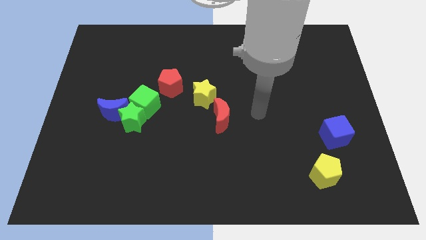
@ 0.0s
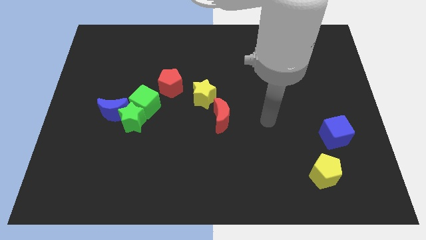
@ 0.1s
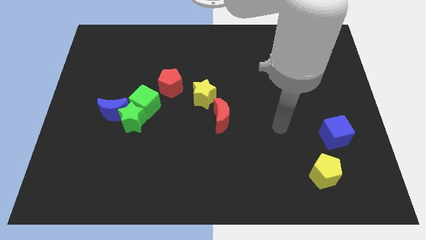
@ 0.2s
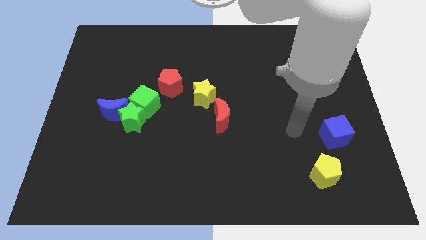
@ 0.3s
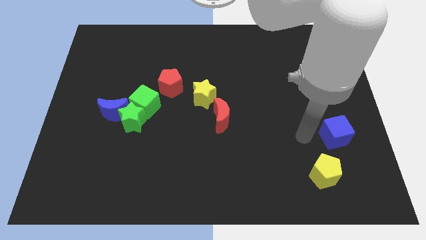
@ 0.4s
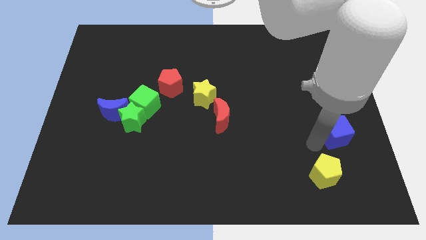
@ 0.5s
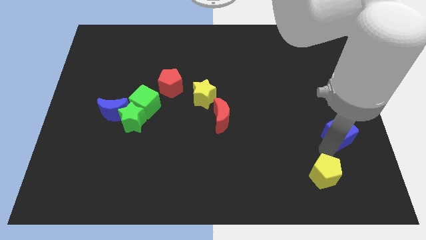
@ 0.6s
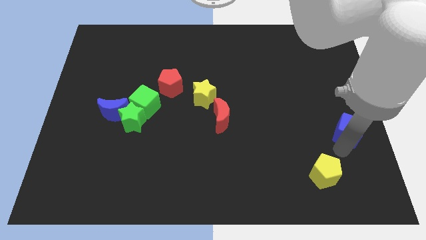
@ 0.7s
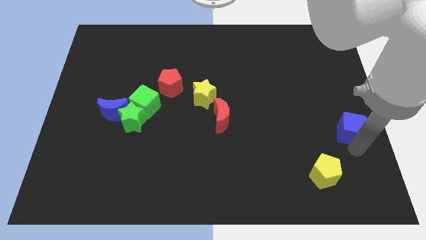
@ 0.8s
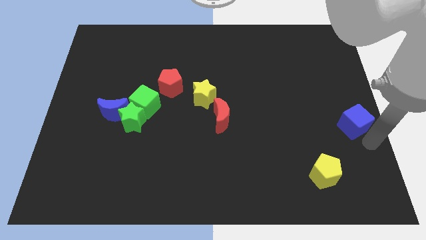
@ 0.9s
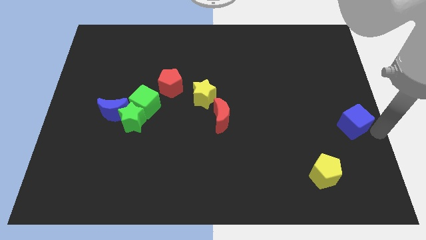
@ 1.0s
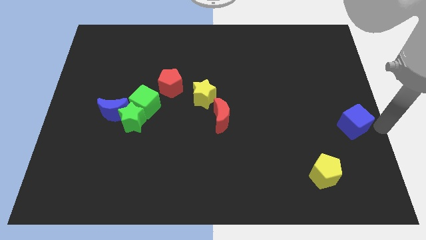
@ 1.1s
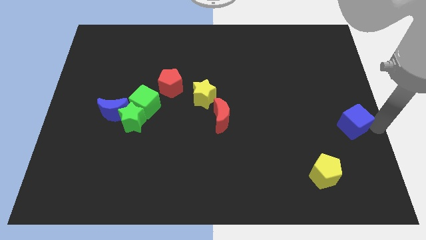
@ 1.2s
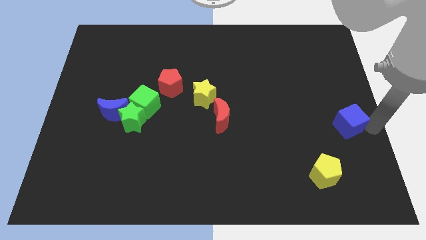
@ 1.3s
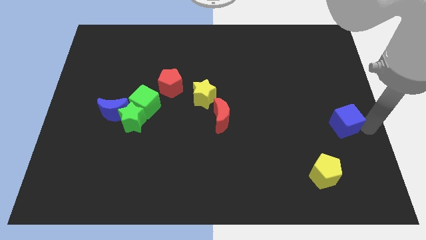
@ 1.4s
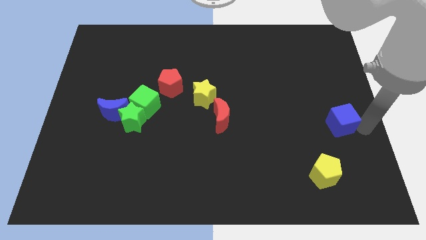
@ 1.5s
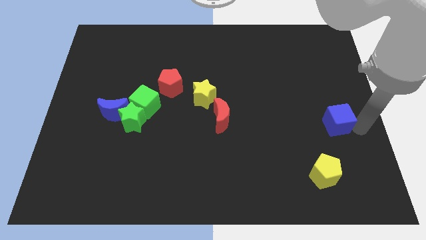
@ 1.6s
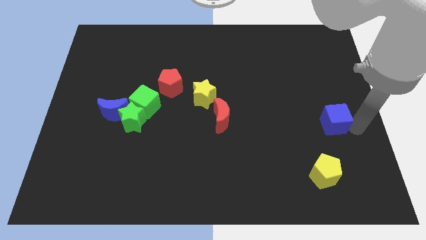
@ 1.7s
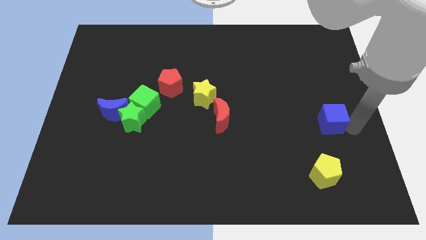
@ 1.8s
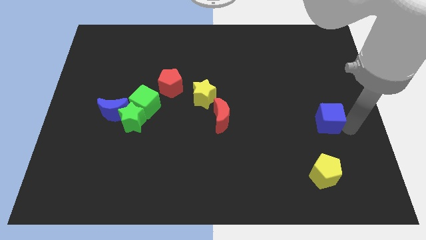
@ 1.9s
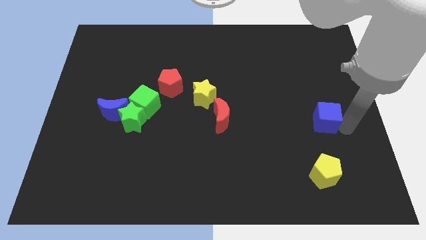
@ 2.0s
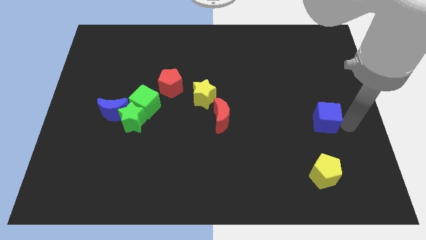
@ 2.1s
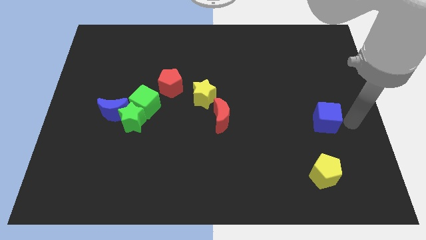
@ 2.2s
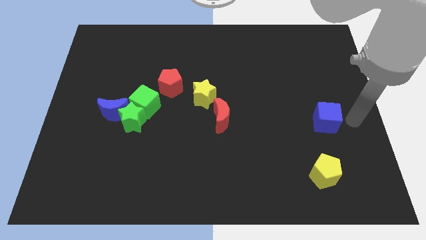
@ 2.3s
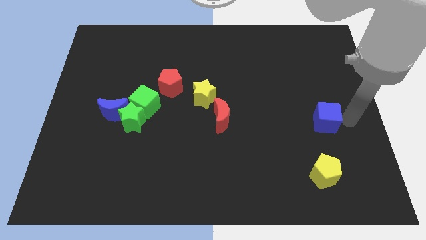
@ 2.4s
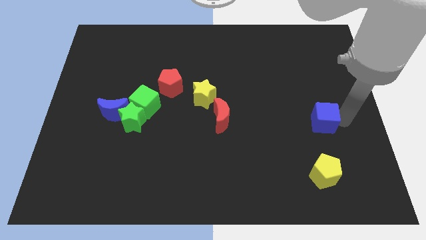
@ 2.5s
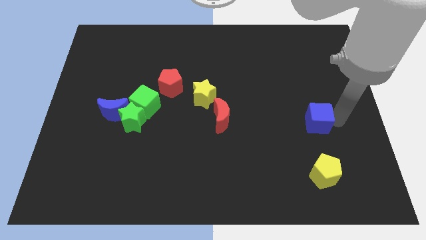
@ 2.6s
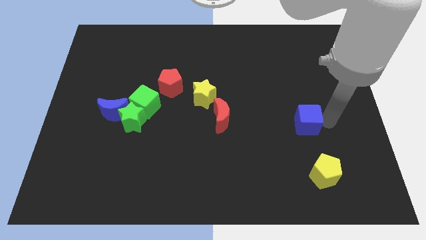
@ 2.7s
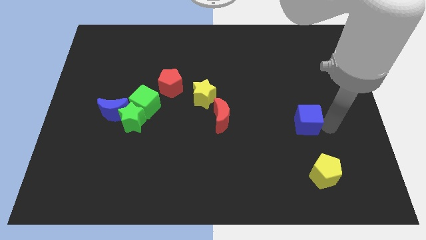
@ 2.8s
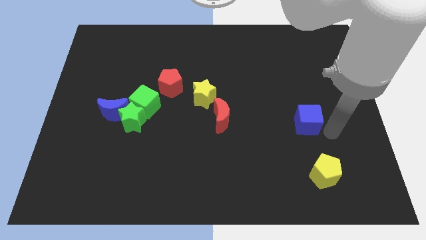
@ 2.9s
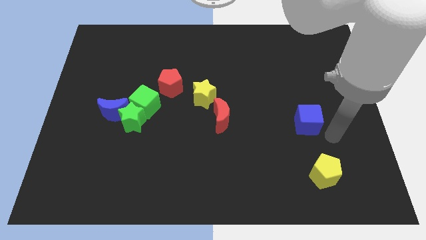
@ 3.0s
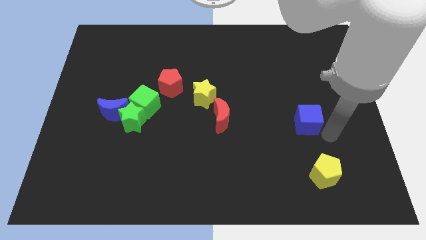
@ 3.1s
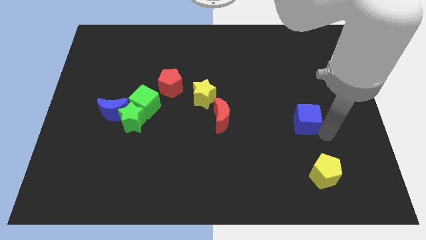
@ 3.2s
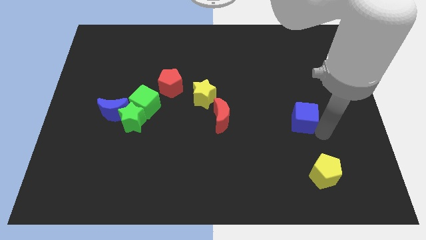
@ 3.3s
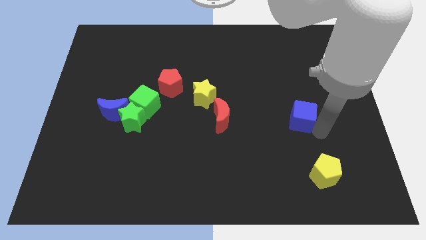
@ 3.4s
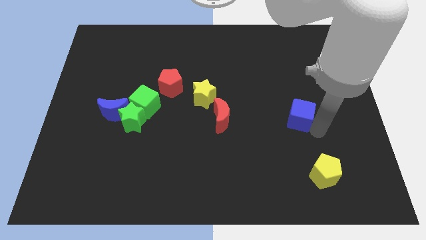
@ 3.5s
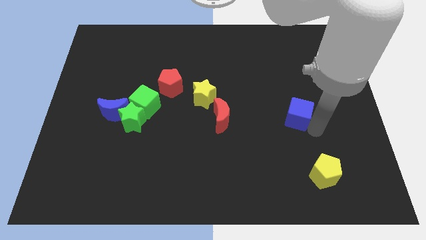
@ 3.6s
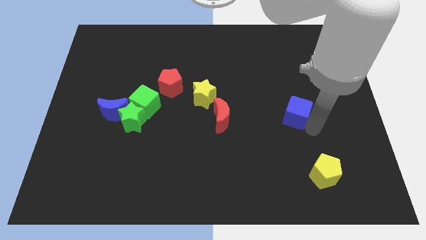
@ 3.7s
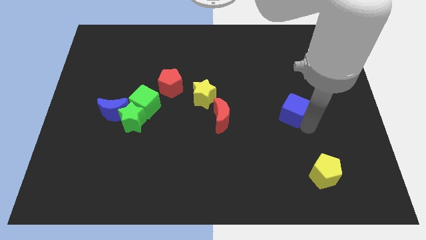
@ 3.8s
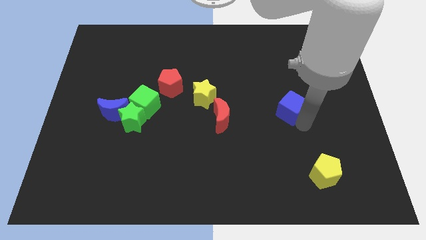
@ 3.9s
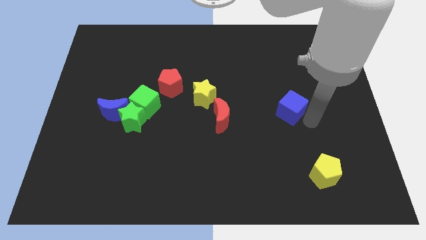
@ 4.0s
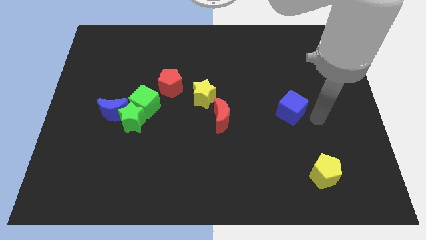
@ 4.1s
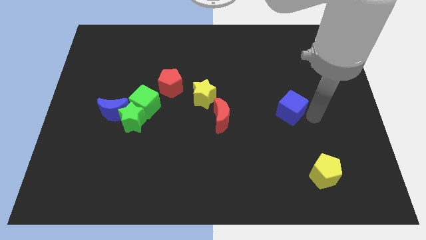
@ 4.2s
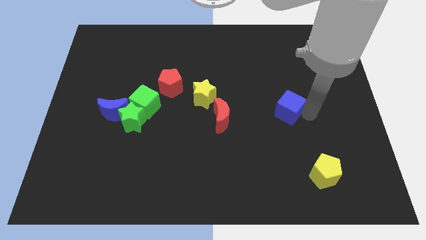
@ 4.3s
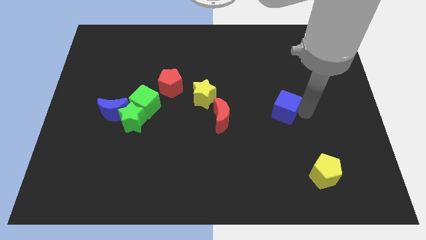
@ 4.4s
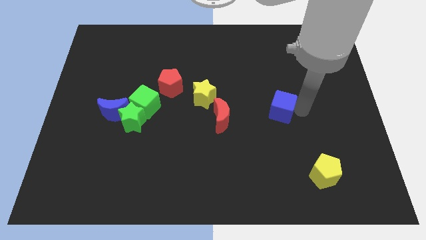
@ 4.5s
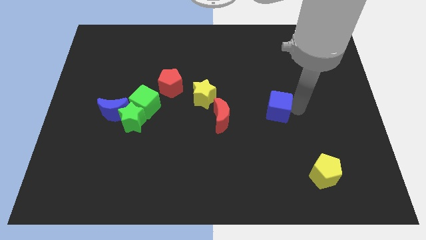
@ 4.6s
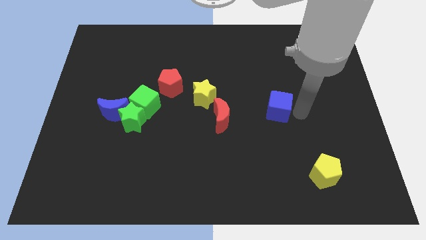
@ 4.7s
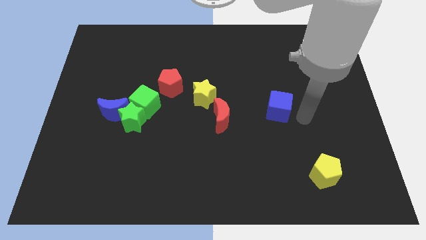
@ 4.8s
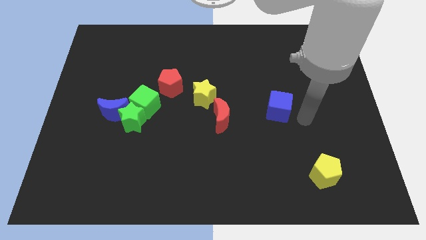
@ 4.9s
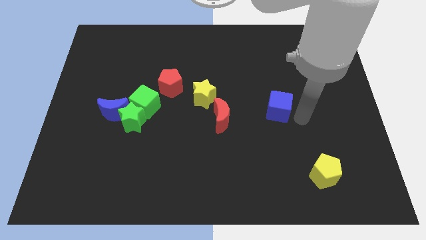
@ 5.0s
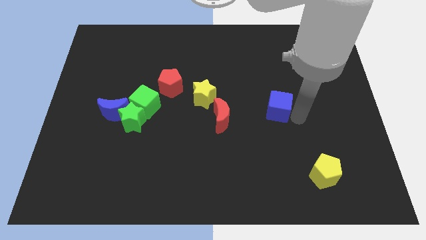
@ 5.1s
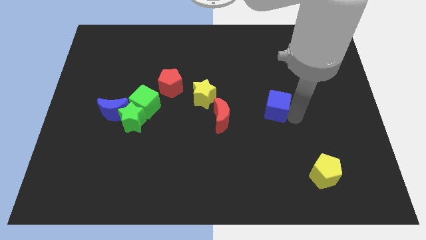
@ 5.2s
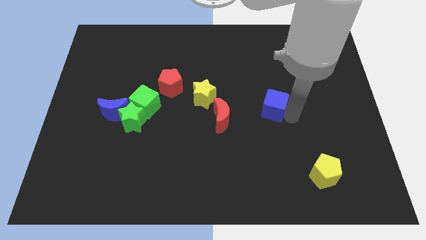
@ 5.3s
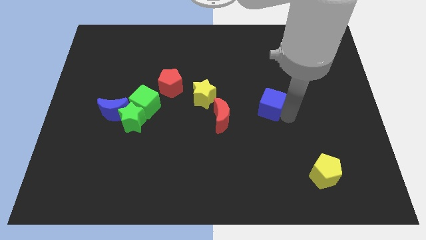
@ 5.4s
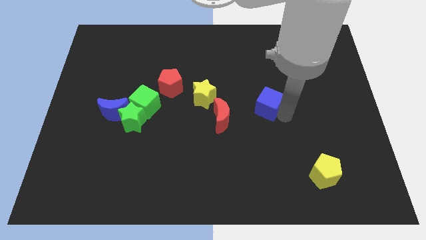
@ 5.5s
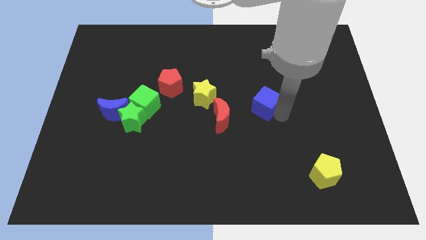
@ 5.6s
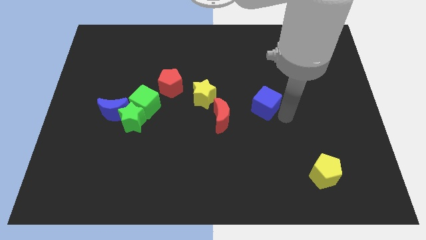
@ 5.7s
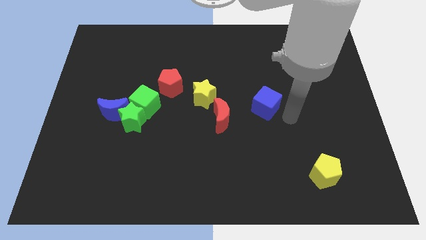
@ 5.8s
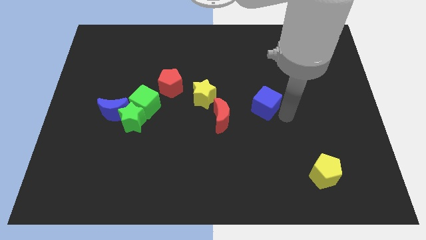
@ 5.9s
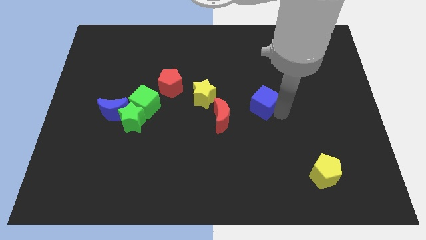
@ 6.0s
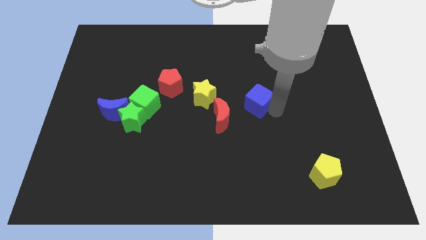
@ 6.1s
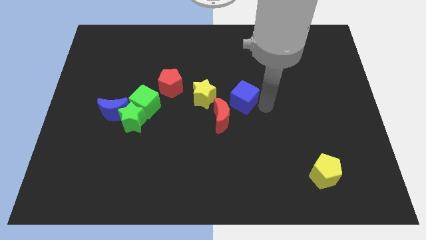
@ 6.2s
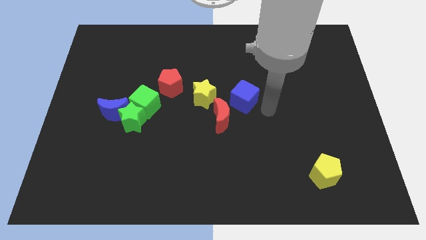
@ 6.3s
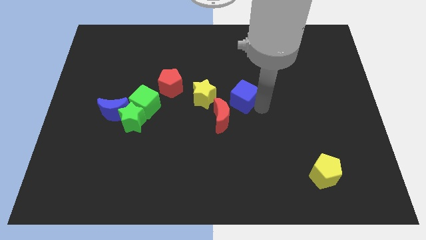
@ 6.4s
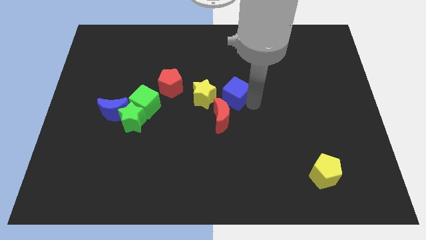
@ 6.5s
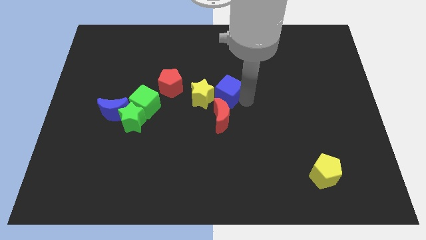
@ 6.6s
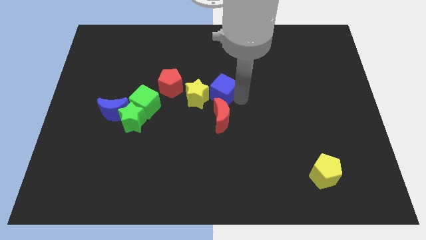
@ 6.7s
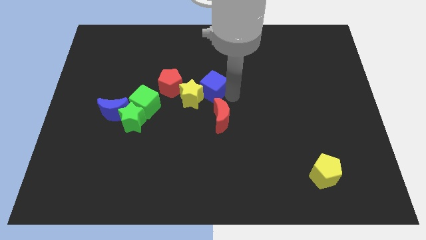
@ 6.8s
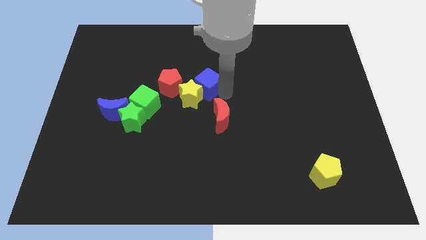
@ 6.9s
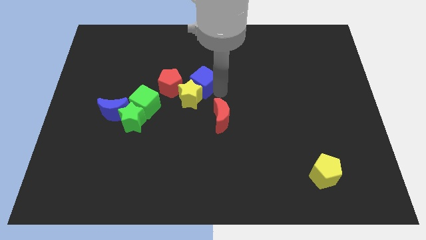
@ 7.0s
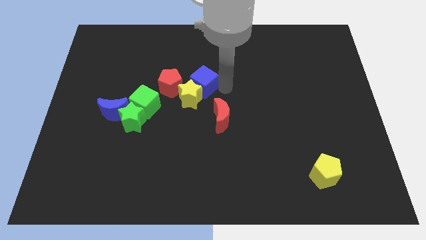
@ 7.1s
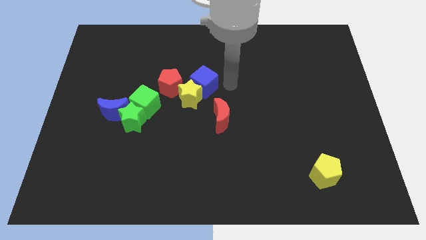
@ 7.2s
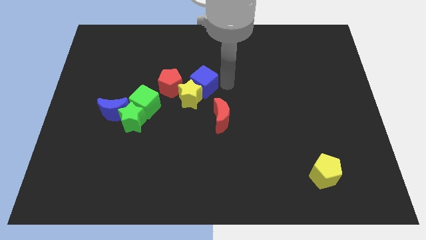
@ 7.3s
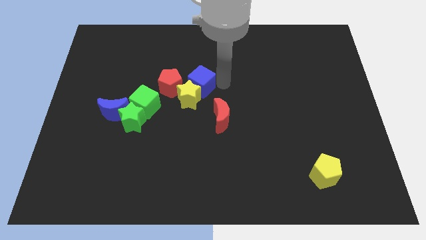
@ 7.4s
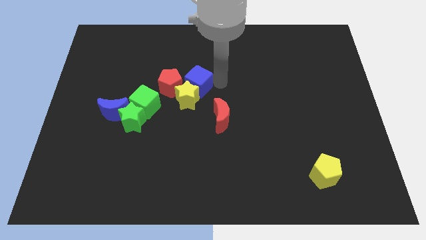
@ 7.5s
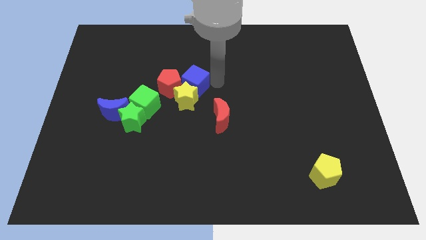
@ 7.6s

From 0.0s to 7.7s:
slide the blue cube to the red pentagon

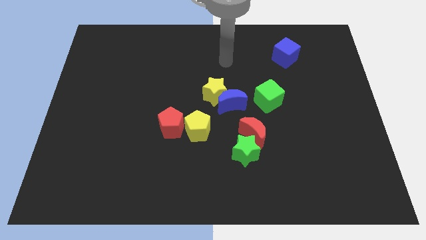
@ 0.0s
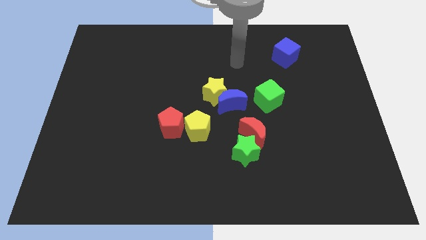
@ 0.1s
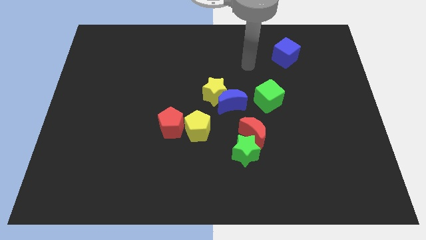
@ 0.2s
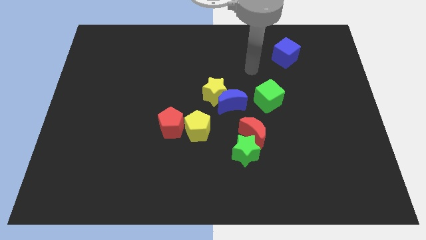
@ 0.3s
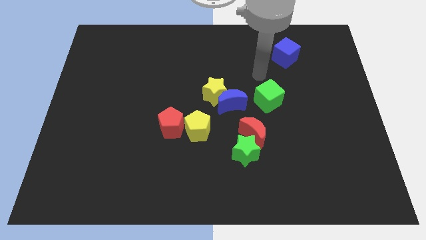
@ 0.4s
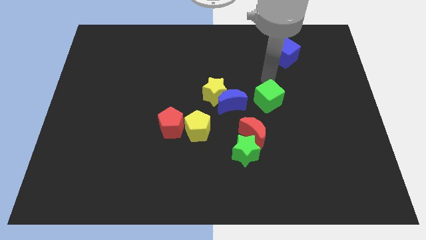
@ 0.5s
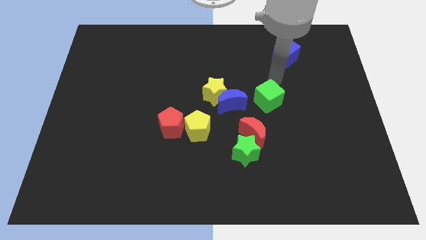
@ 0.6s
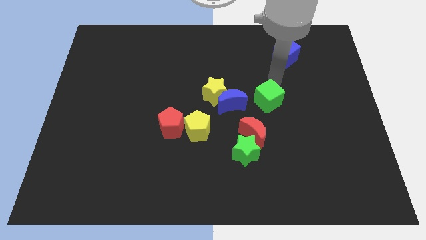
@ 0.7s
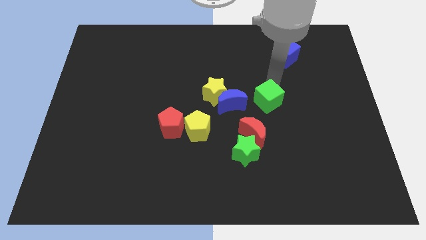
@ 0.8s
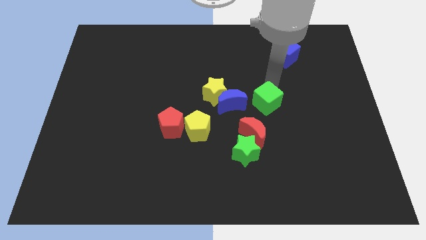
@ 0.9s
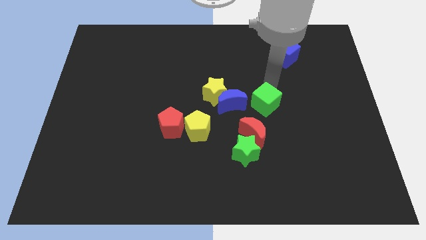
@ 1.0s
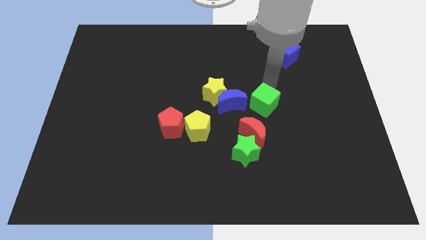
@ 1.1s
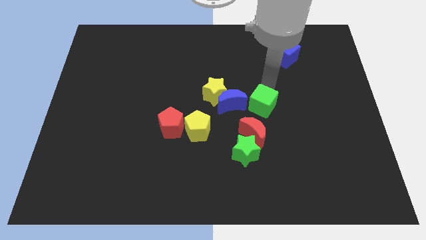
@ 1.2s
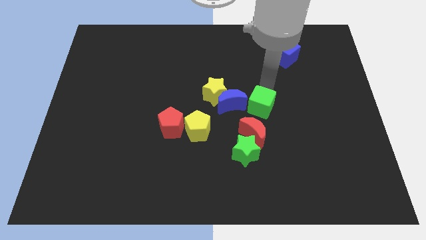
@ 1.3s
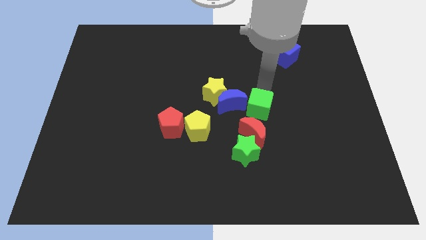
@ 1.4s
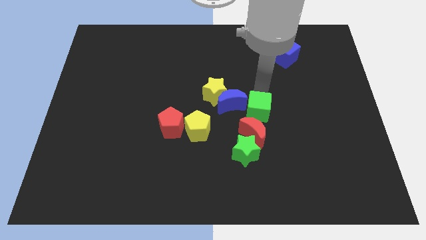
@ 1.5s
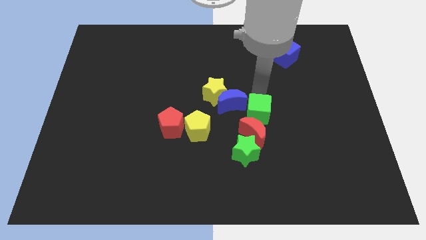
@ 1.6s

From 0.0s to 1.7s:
push the green cube towards the red moon
